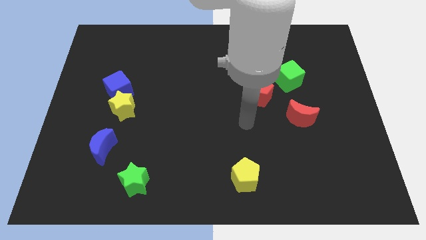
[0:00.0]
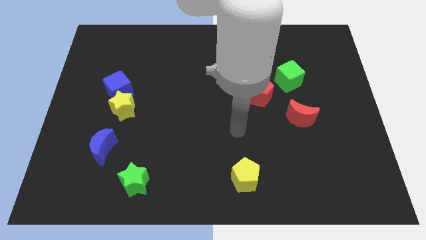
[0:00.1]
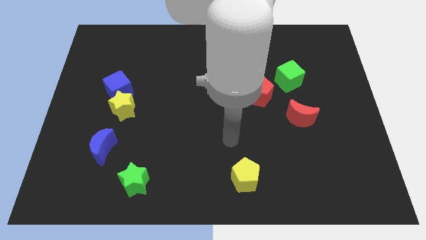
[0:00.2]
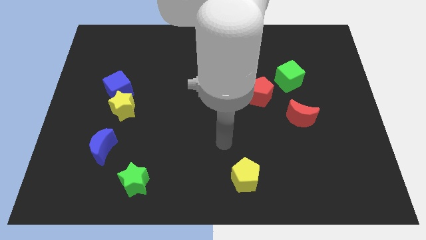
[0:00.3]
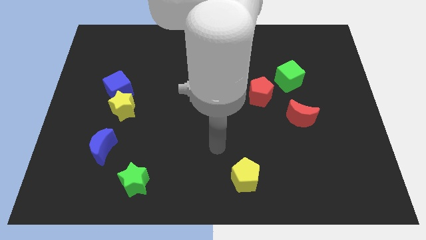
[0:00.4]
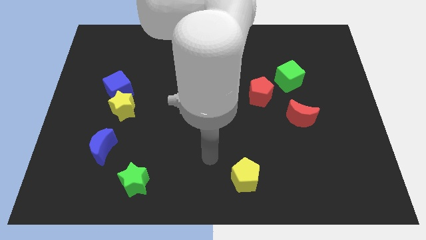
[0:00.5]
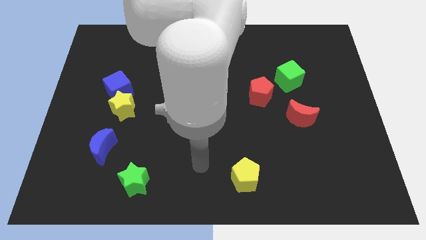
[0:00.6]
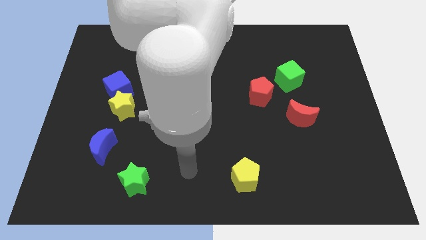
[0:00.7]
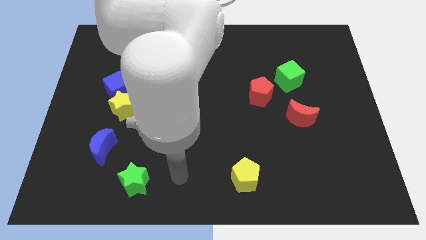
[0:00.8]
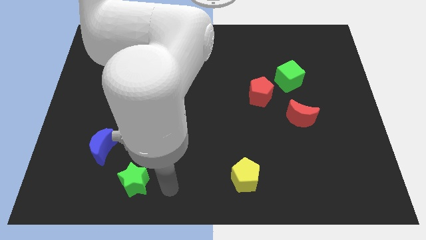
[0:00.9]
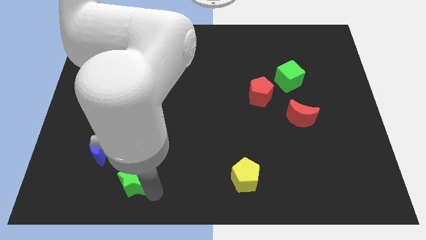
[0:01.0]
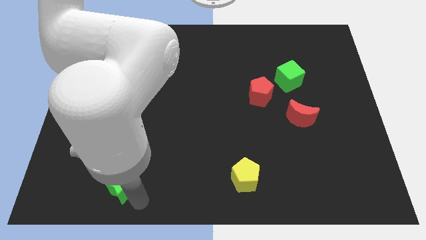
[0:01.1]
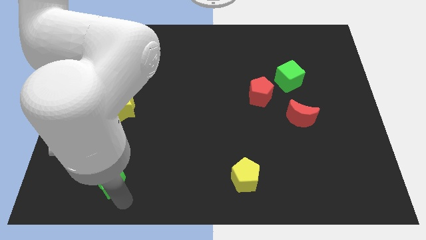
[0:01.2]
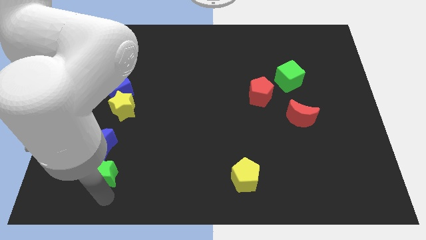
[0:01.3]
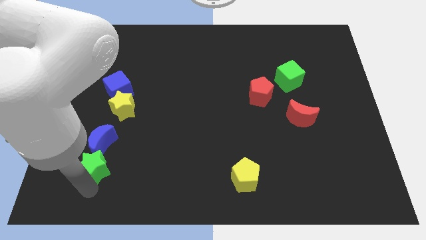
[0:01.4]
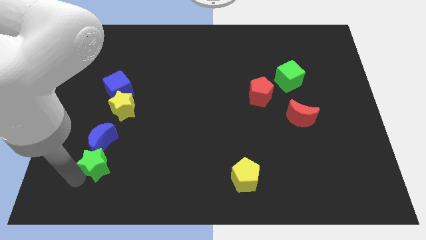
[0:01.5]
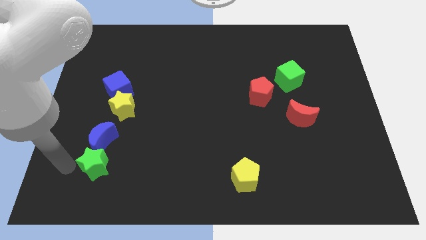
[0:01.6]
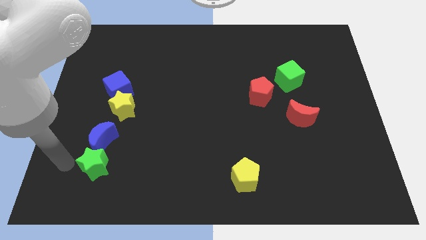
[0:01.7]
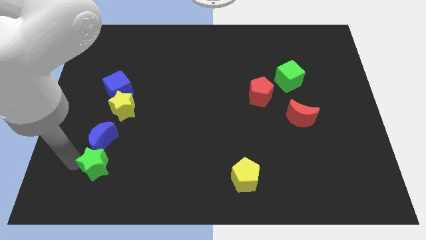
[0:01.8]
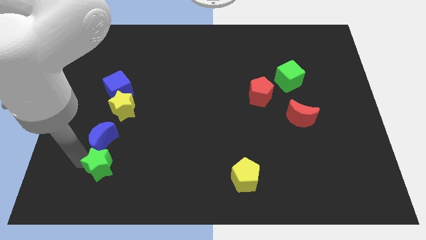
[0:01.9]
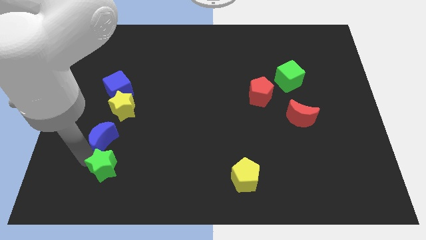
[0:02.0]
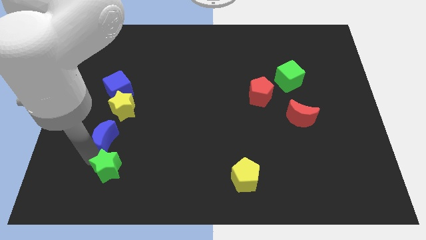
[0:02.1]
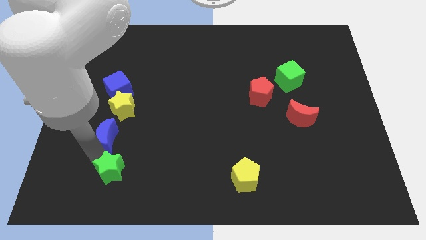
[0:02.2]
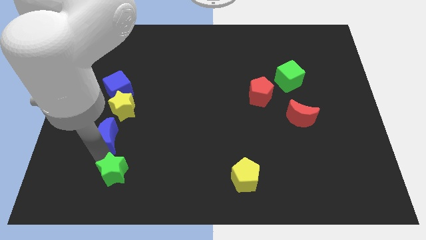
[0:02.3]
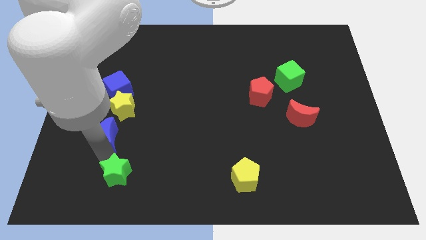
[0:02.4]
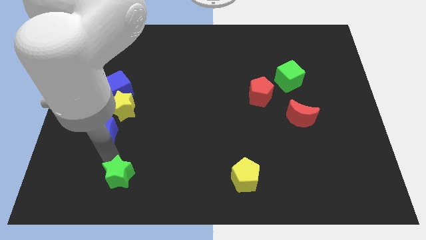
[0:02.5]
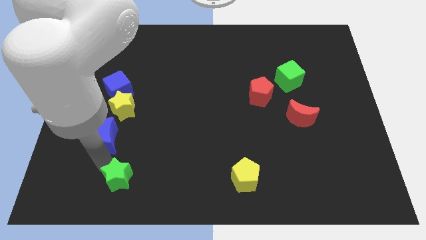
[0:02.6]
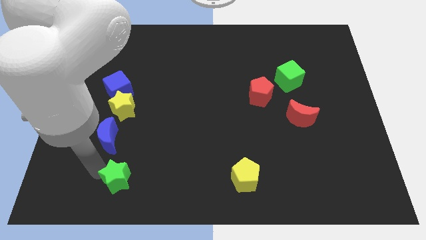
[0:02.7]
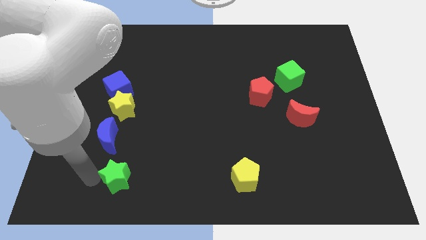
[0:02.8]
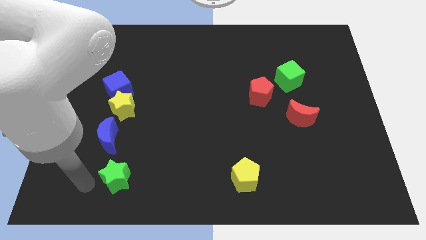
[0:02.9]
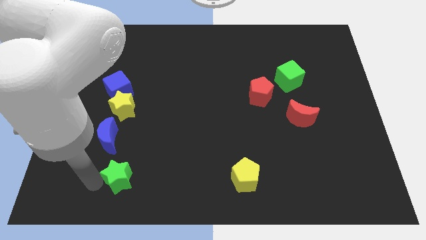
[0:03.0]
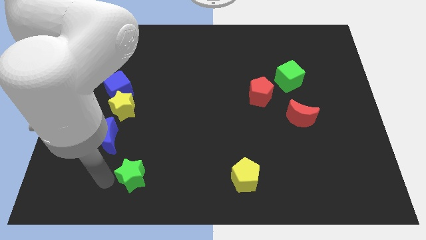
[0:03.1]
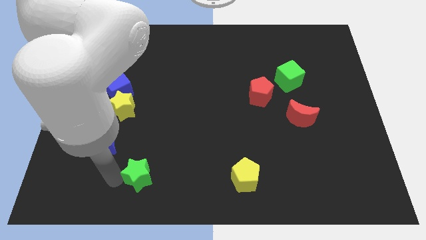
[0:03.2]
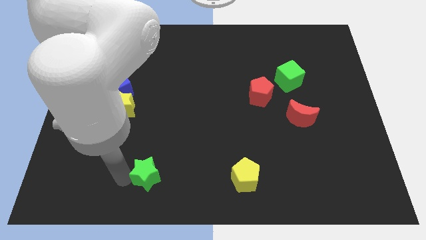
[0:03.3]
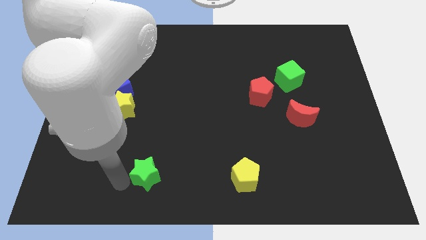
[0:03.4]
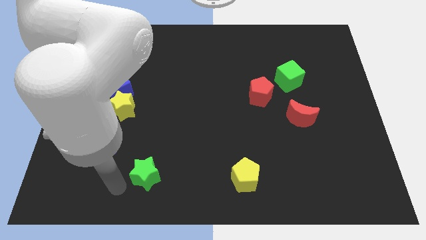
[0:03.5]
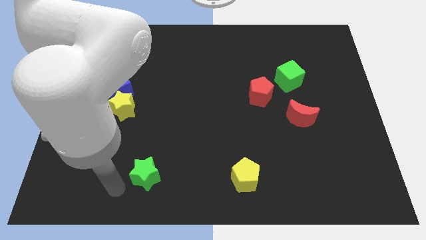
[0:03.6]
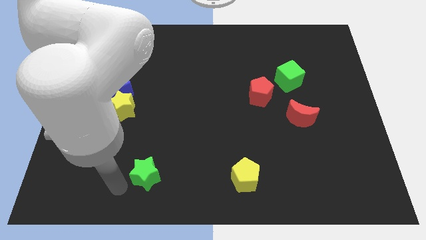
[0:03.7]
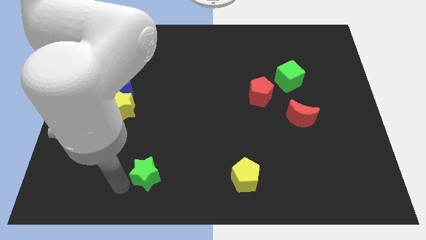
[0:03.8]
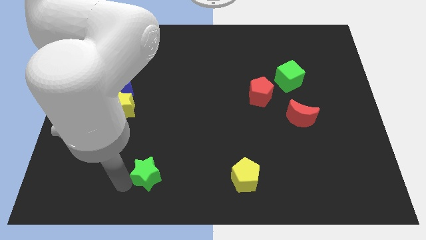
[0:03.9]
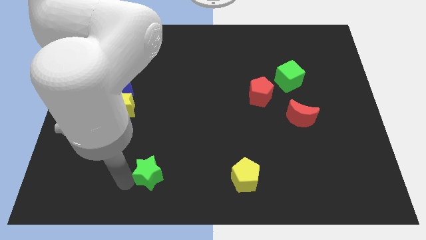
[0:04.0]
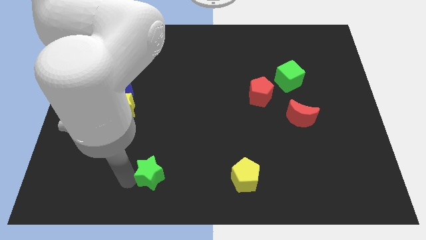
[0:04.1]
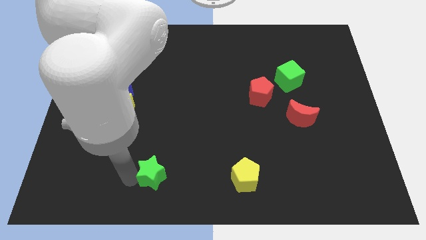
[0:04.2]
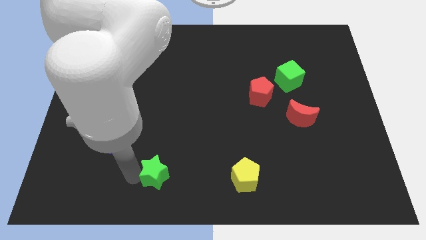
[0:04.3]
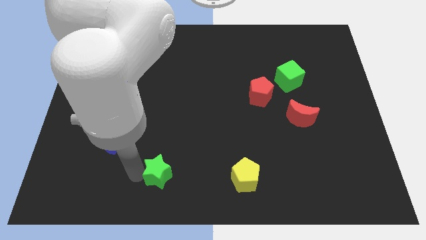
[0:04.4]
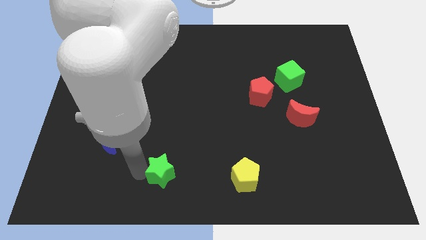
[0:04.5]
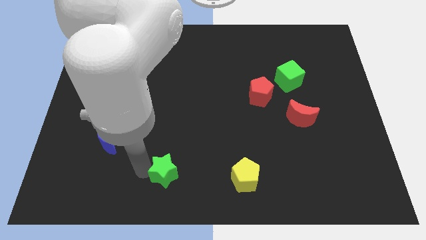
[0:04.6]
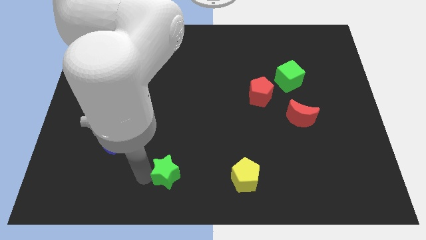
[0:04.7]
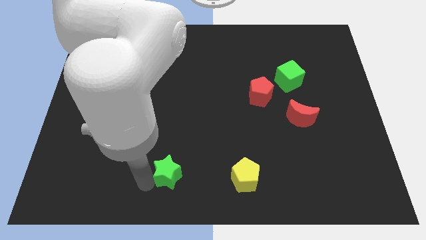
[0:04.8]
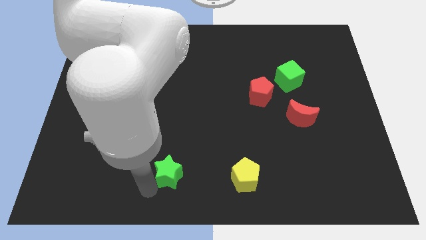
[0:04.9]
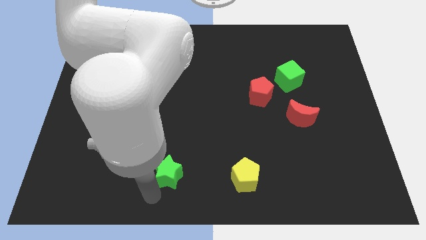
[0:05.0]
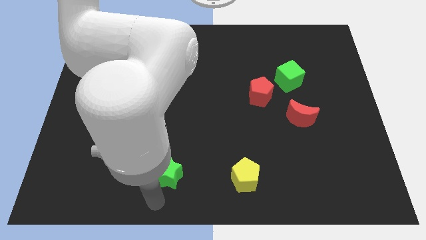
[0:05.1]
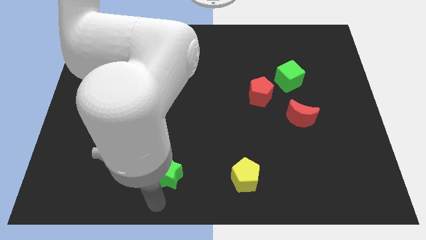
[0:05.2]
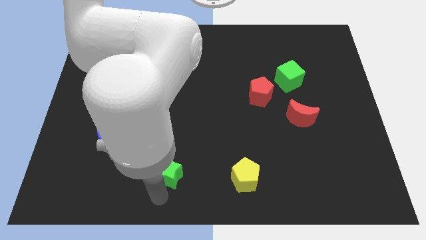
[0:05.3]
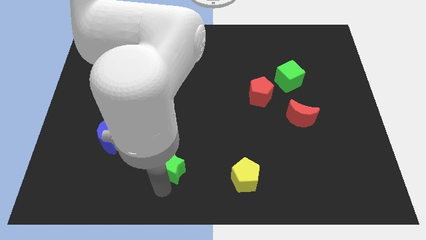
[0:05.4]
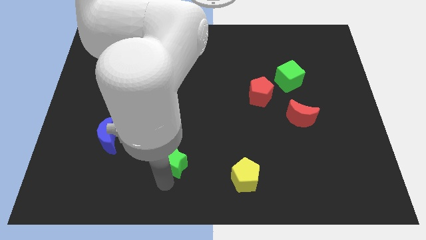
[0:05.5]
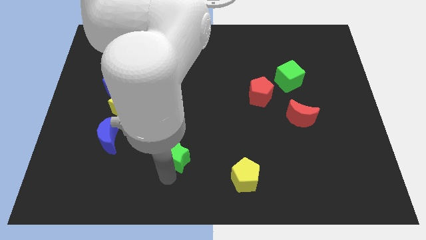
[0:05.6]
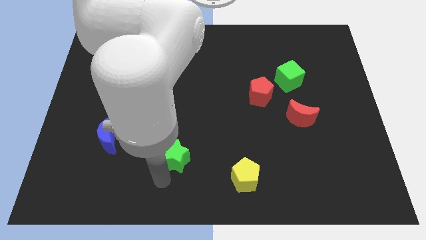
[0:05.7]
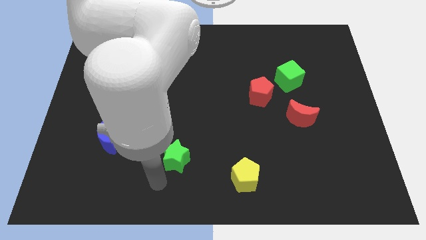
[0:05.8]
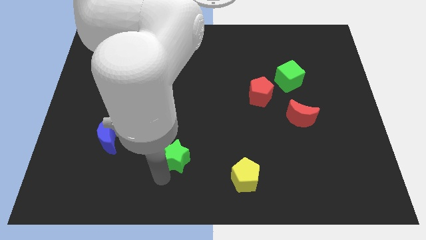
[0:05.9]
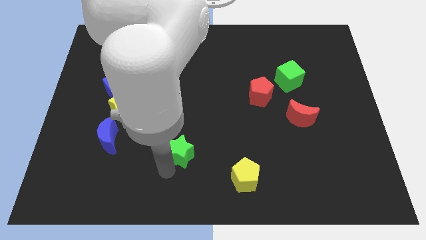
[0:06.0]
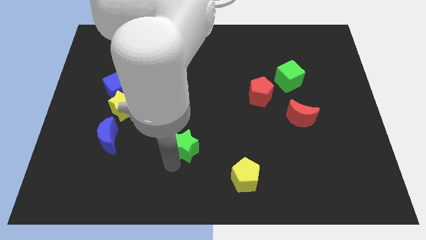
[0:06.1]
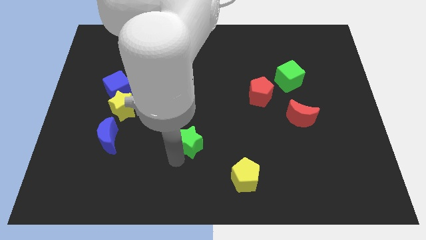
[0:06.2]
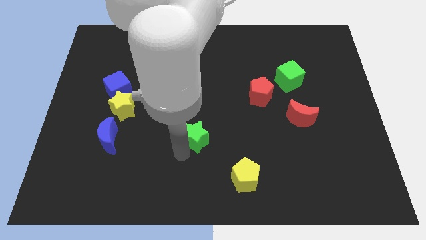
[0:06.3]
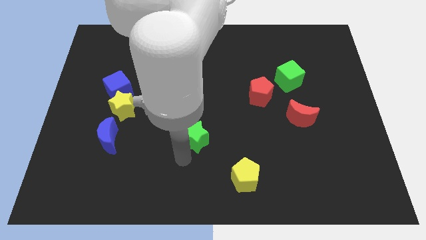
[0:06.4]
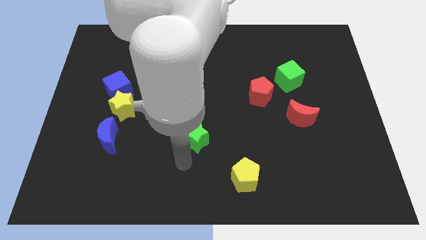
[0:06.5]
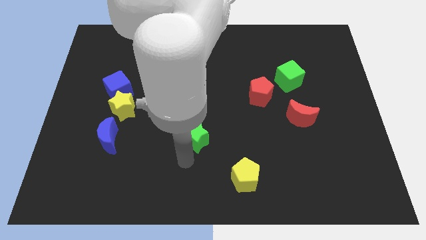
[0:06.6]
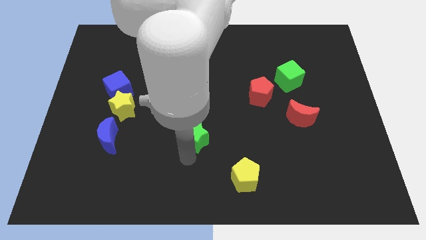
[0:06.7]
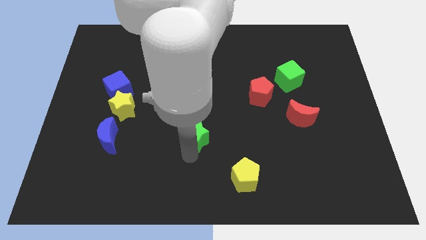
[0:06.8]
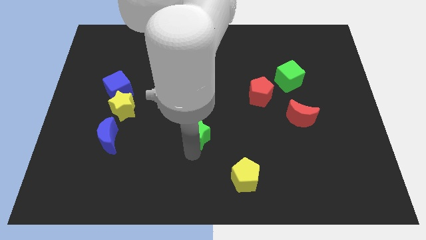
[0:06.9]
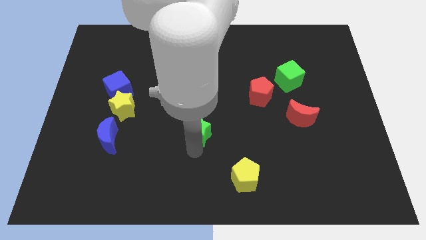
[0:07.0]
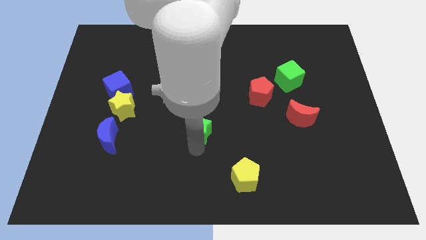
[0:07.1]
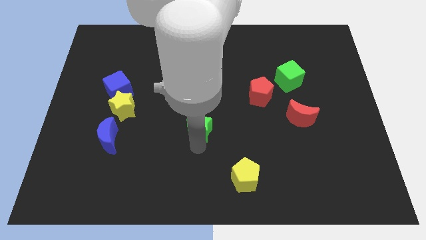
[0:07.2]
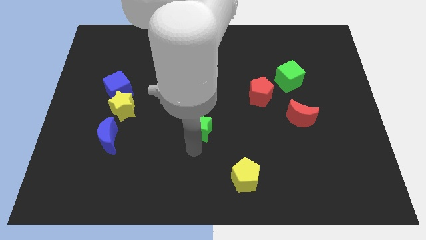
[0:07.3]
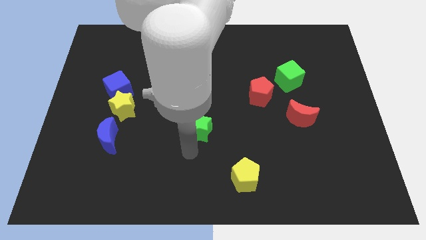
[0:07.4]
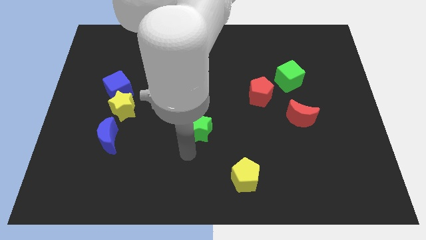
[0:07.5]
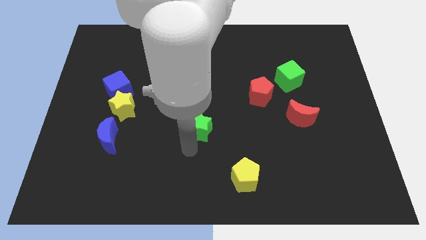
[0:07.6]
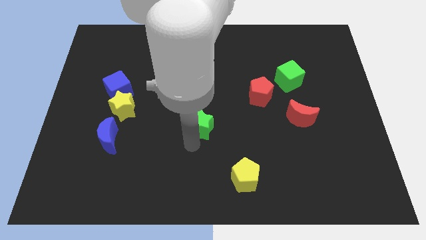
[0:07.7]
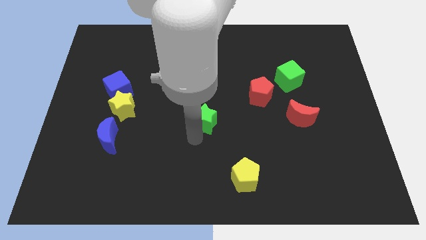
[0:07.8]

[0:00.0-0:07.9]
slide the green star up and then right
